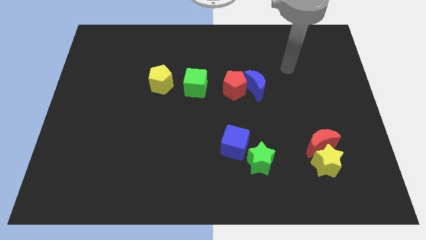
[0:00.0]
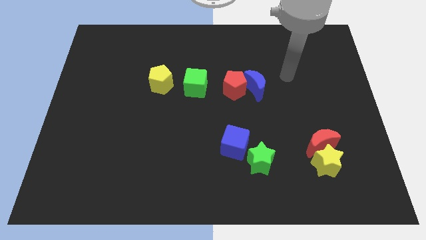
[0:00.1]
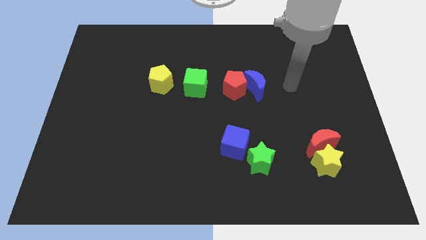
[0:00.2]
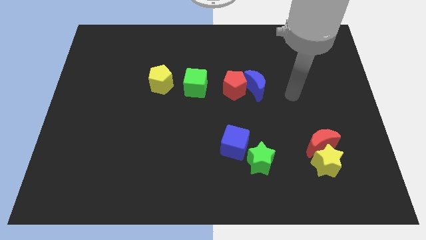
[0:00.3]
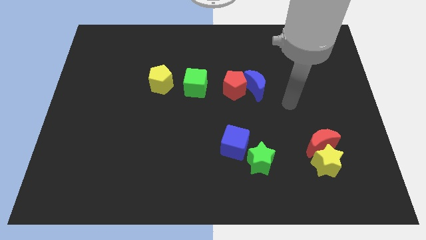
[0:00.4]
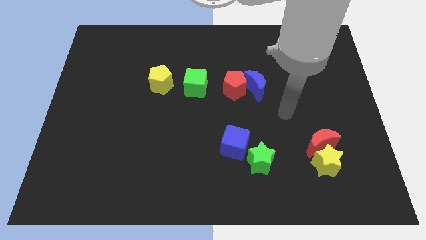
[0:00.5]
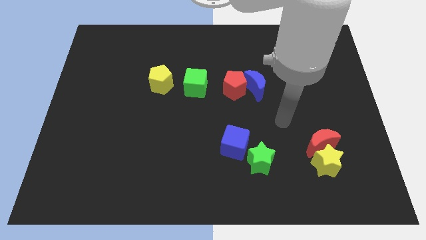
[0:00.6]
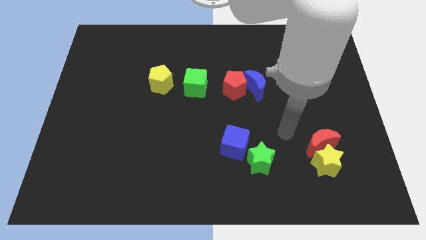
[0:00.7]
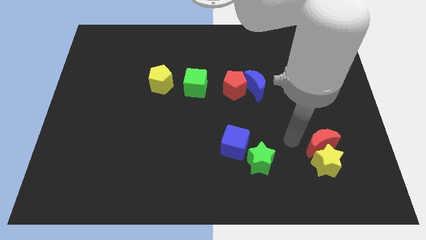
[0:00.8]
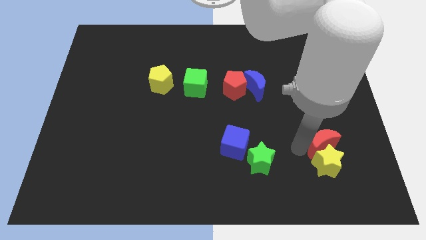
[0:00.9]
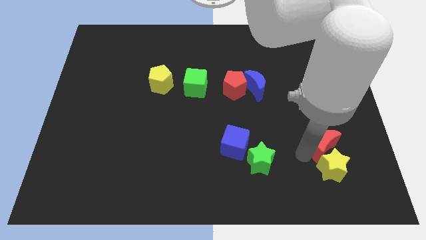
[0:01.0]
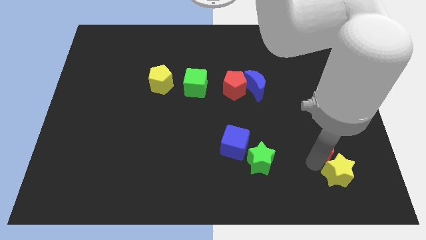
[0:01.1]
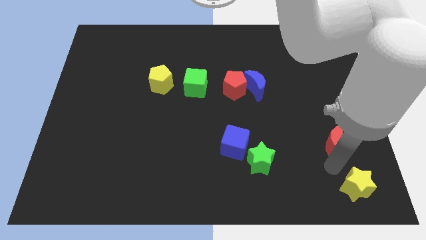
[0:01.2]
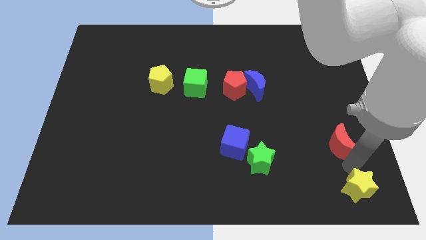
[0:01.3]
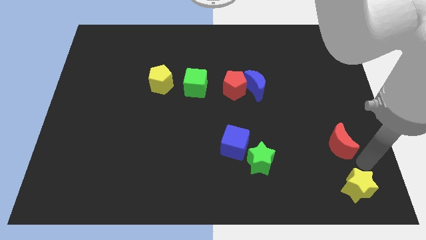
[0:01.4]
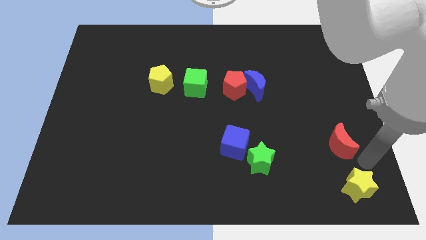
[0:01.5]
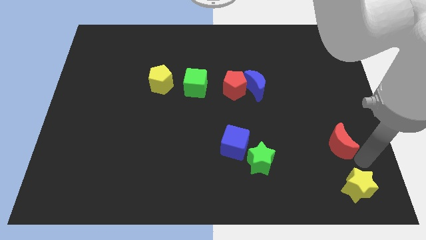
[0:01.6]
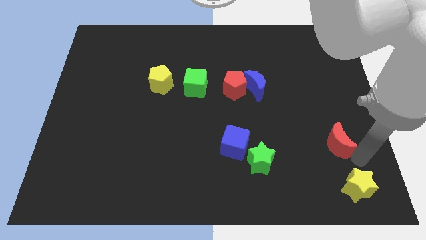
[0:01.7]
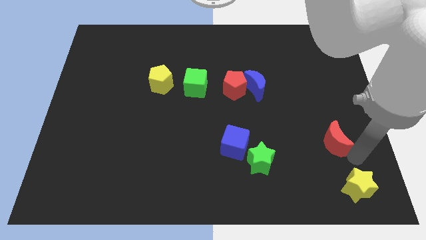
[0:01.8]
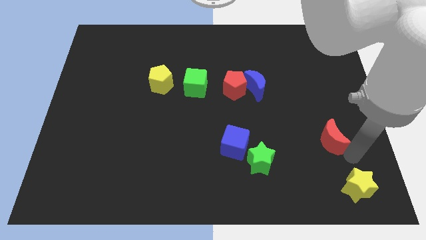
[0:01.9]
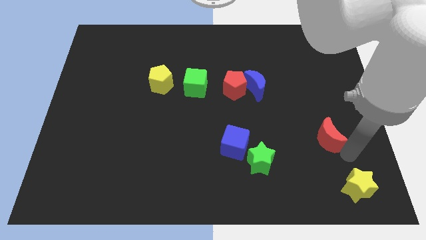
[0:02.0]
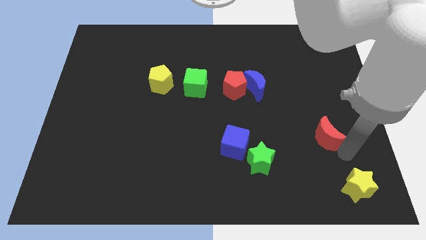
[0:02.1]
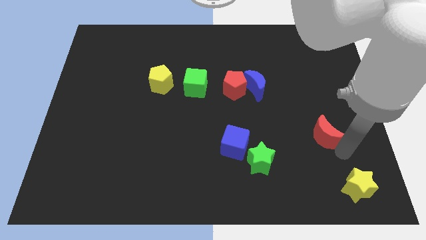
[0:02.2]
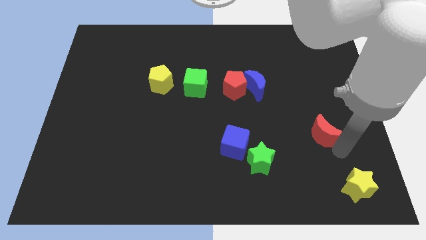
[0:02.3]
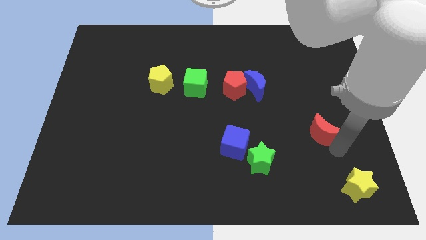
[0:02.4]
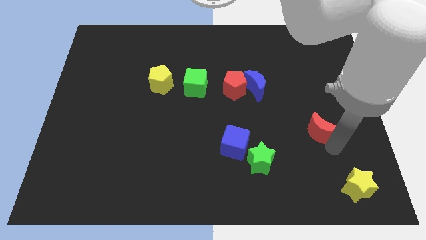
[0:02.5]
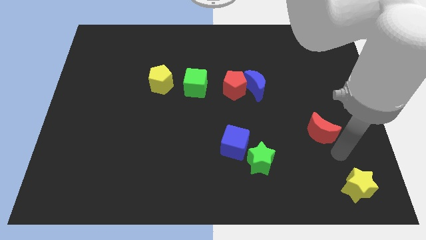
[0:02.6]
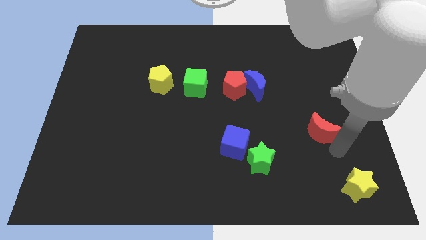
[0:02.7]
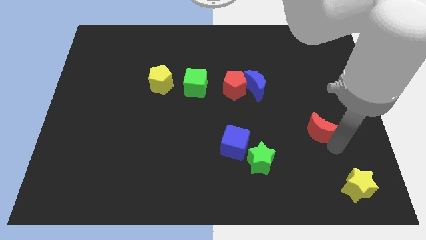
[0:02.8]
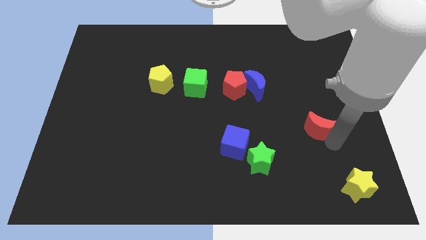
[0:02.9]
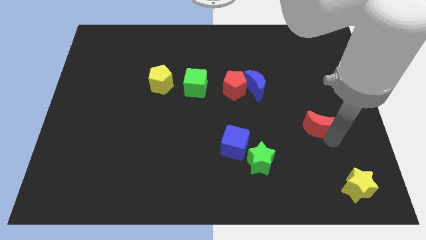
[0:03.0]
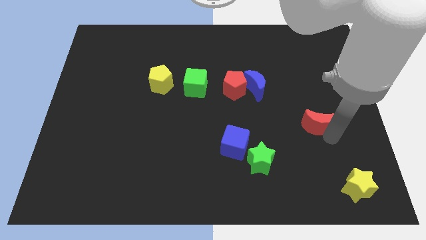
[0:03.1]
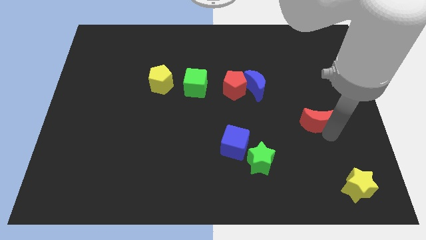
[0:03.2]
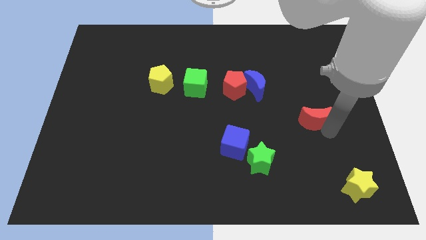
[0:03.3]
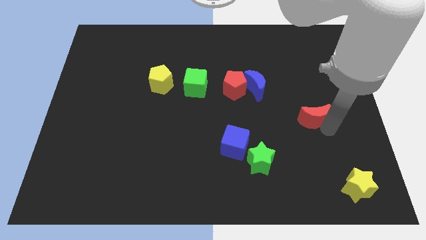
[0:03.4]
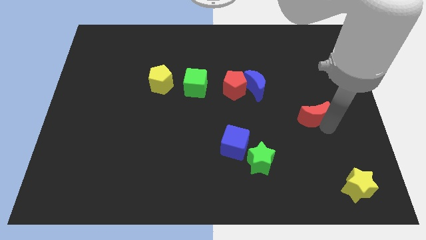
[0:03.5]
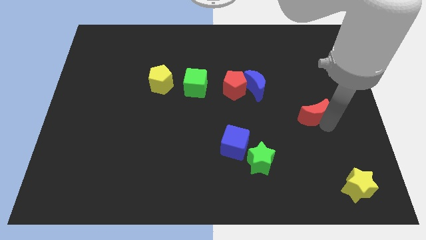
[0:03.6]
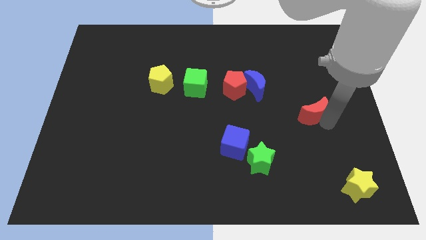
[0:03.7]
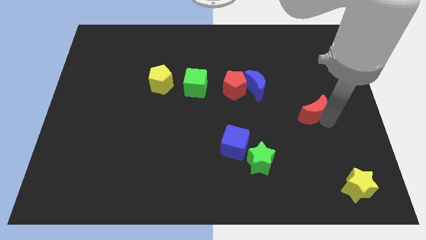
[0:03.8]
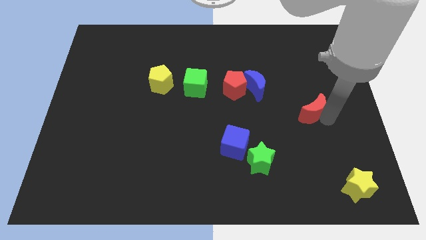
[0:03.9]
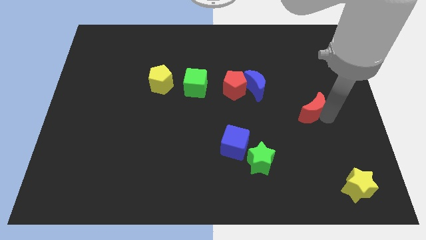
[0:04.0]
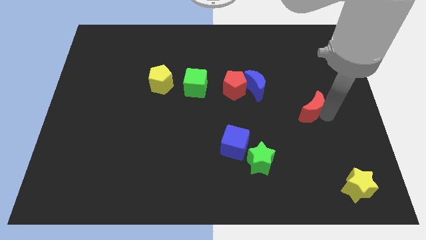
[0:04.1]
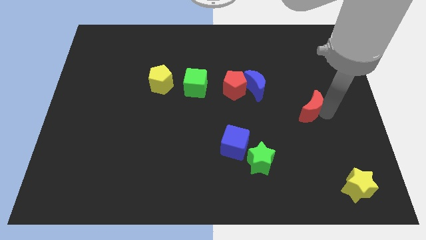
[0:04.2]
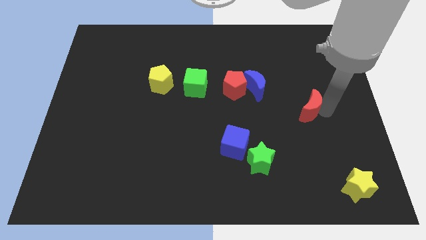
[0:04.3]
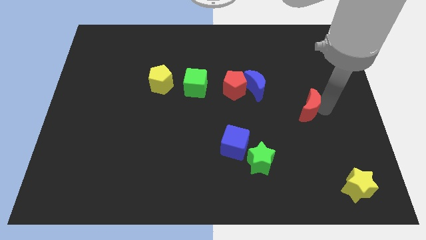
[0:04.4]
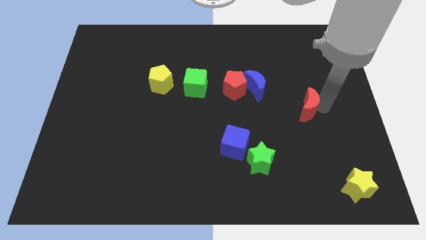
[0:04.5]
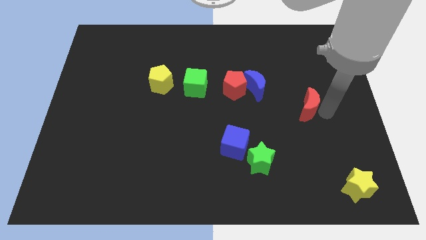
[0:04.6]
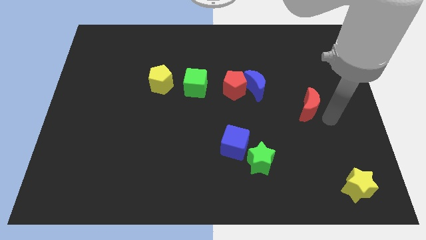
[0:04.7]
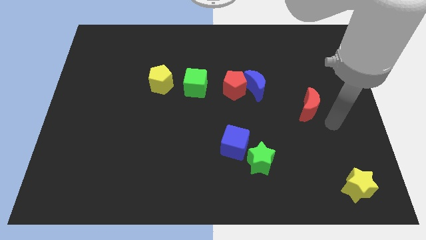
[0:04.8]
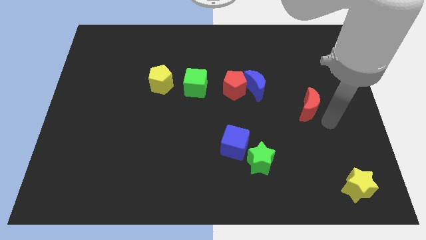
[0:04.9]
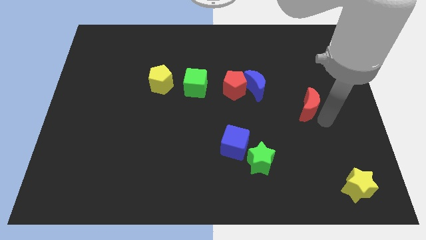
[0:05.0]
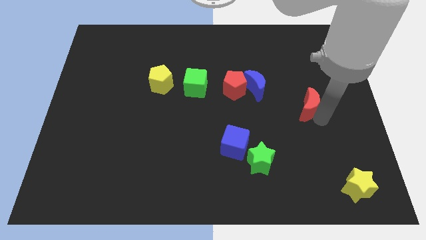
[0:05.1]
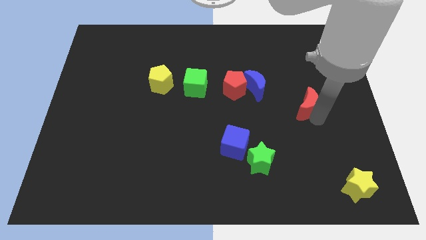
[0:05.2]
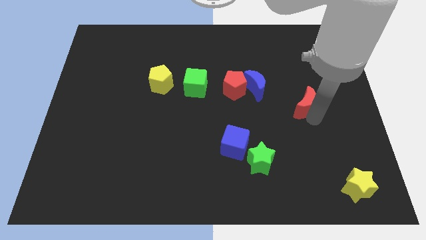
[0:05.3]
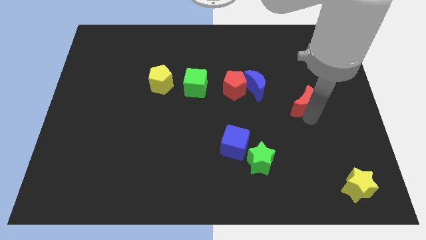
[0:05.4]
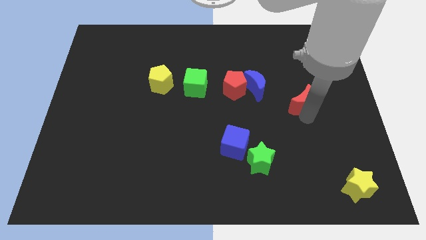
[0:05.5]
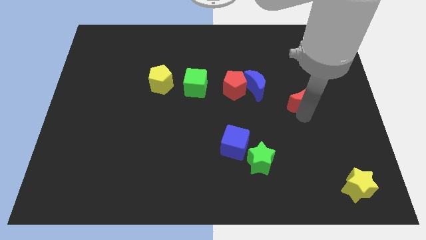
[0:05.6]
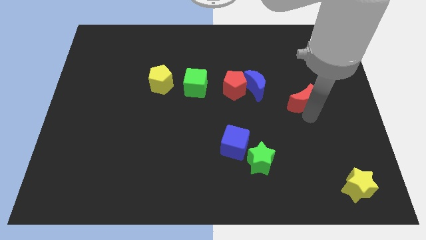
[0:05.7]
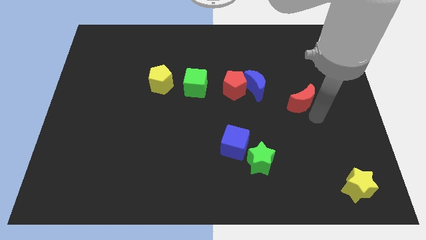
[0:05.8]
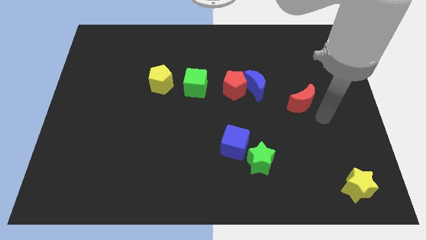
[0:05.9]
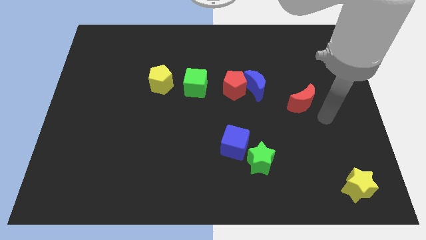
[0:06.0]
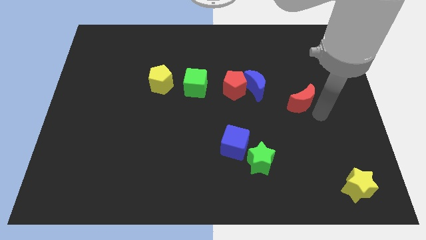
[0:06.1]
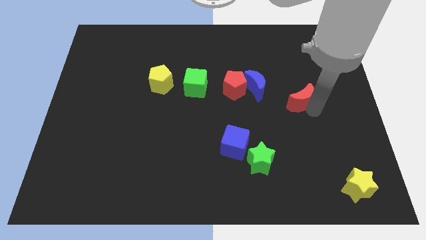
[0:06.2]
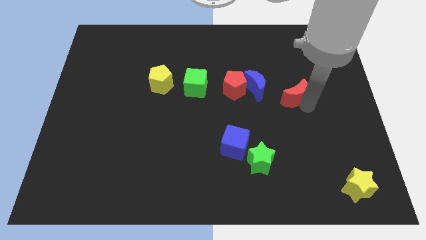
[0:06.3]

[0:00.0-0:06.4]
slide the red moon to the right of the red pentagon
